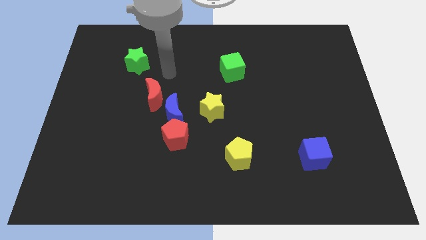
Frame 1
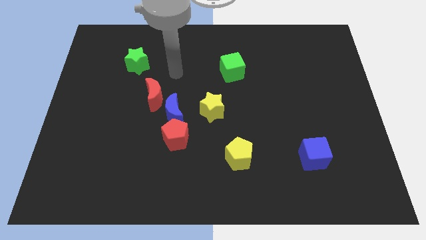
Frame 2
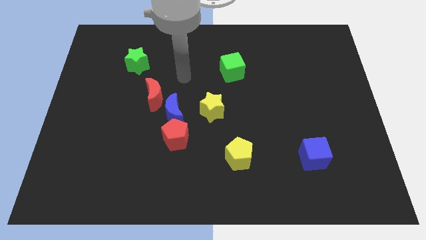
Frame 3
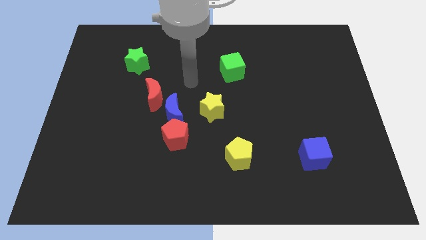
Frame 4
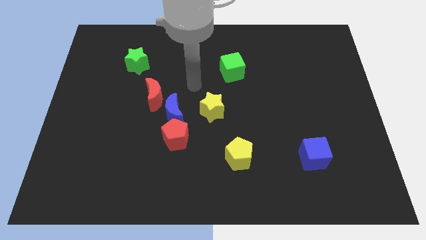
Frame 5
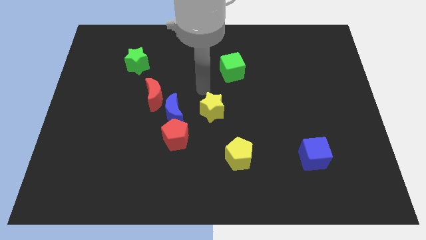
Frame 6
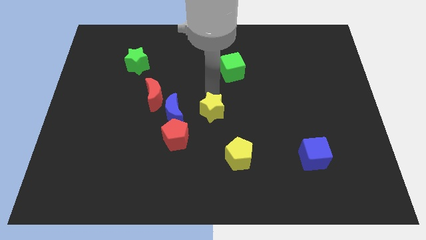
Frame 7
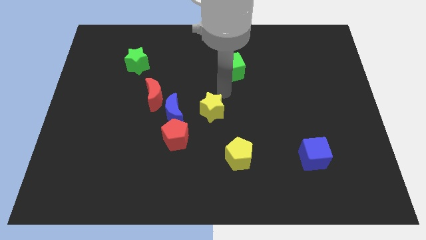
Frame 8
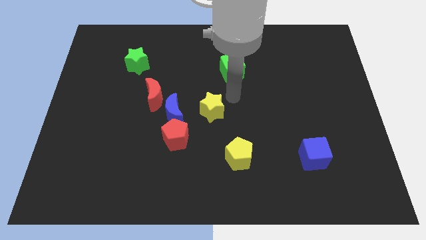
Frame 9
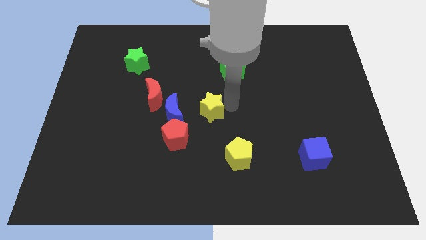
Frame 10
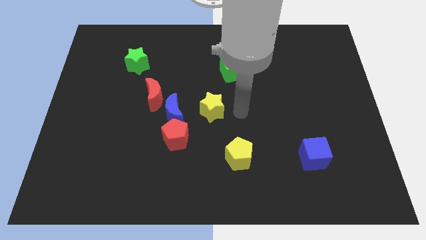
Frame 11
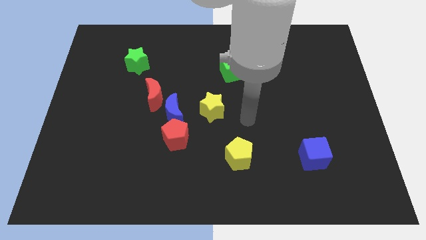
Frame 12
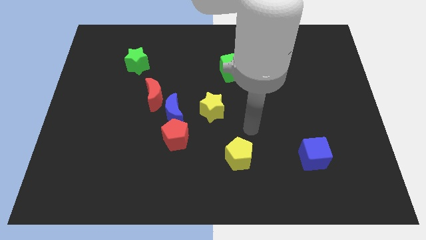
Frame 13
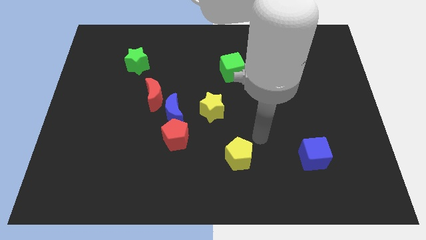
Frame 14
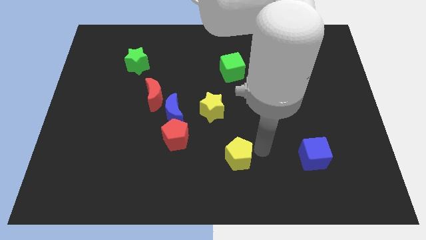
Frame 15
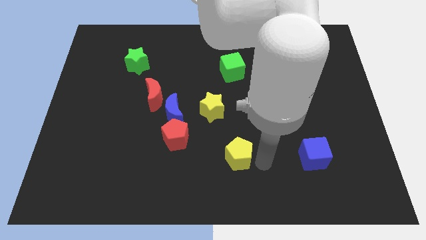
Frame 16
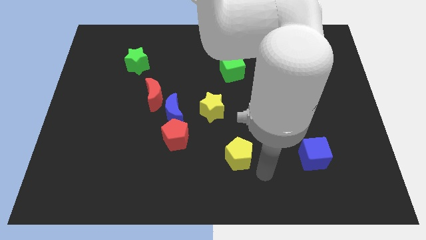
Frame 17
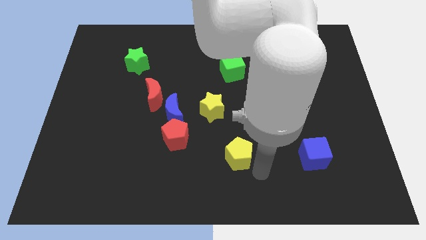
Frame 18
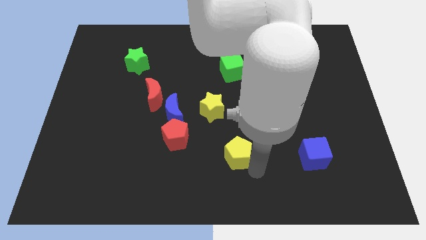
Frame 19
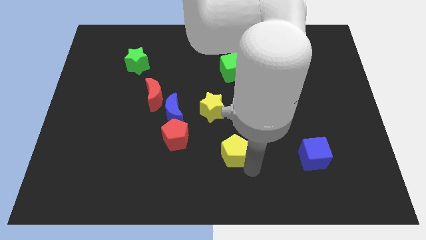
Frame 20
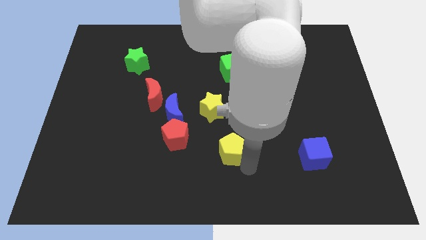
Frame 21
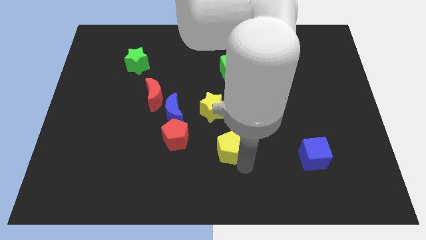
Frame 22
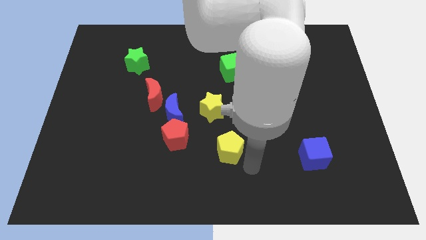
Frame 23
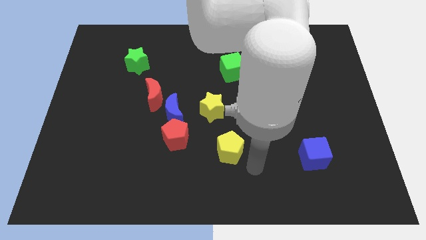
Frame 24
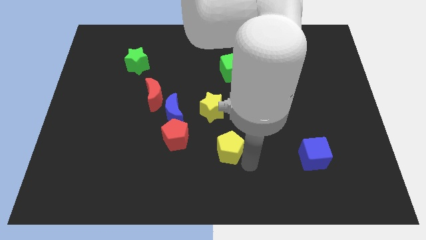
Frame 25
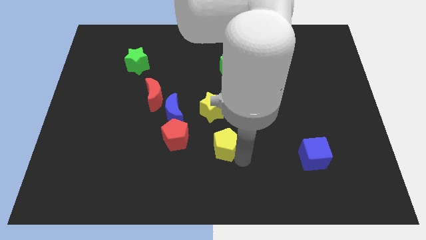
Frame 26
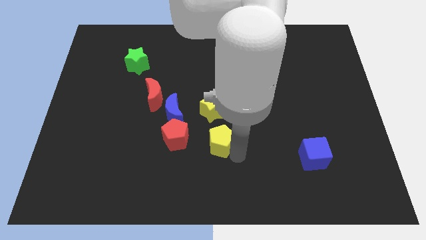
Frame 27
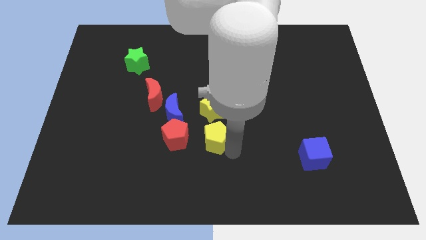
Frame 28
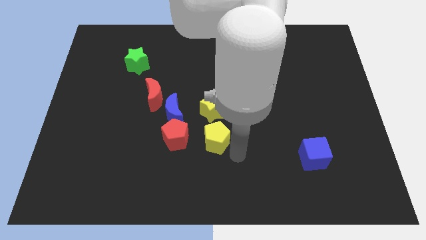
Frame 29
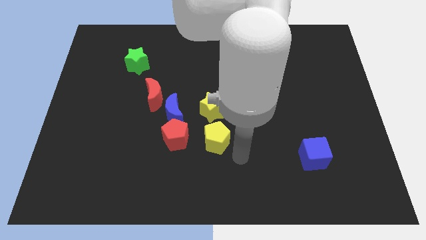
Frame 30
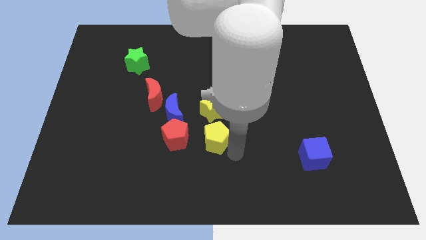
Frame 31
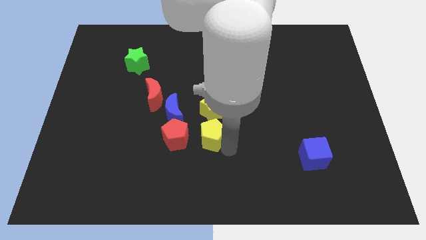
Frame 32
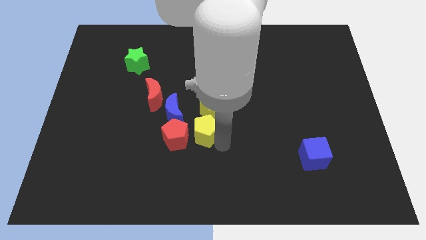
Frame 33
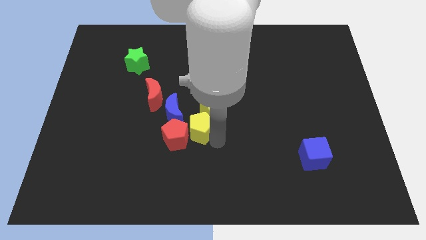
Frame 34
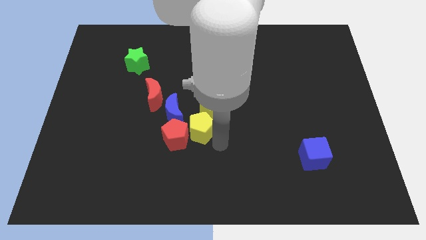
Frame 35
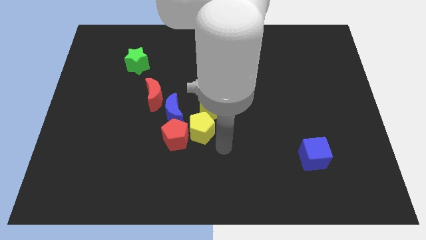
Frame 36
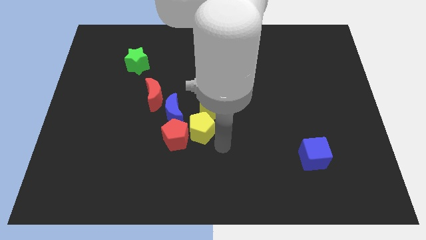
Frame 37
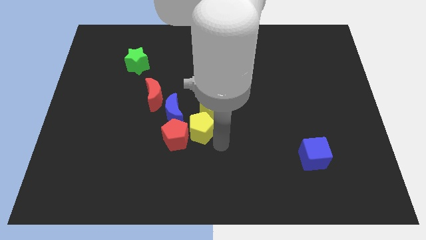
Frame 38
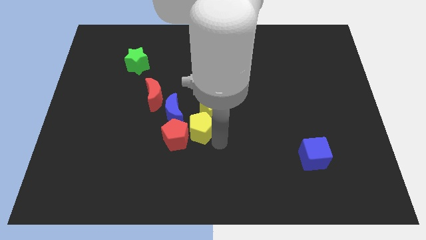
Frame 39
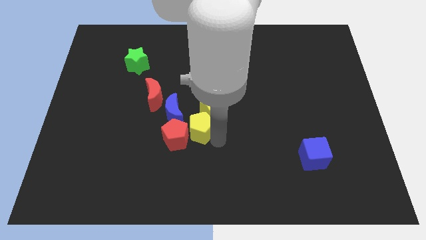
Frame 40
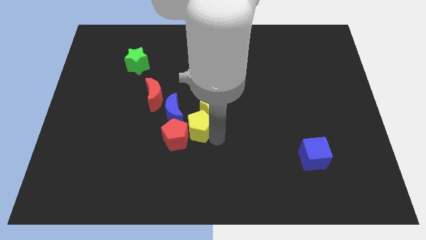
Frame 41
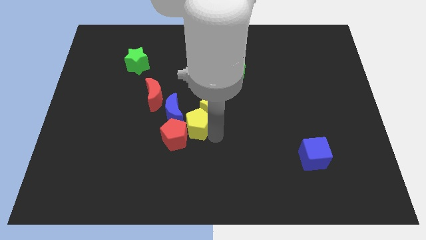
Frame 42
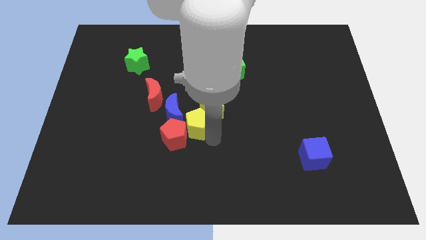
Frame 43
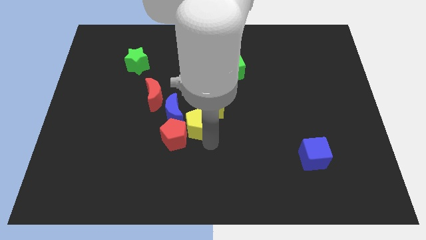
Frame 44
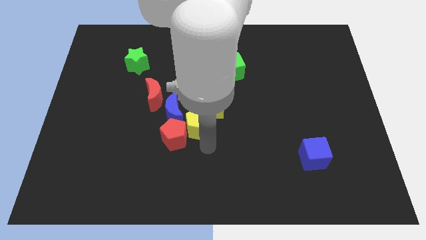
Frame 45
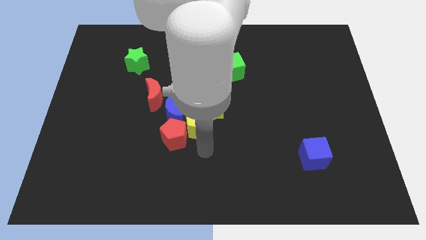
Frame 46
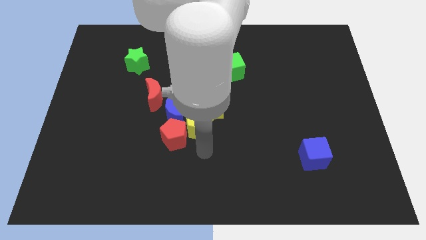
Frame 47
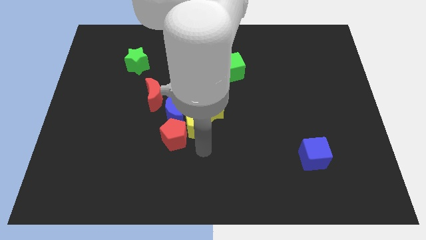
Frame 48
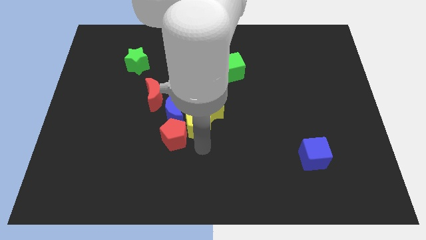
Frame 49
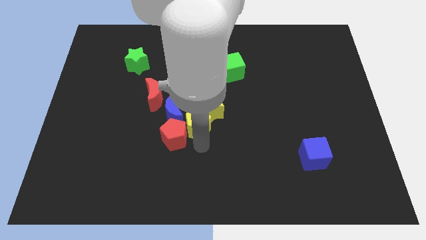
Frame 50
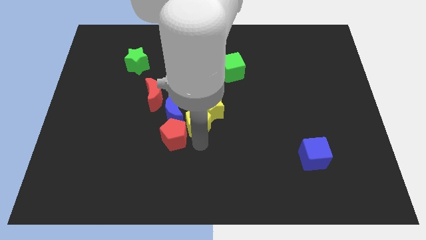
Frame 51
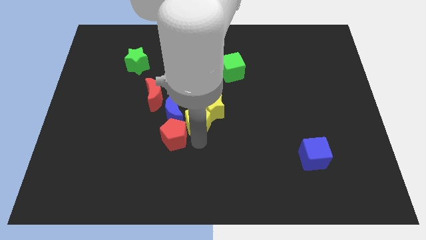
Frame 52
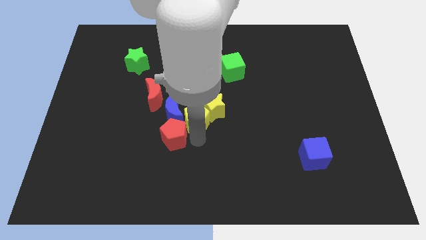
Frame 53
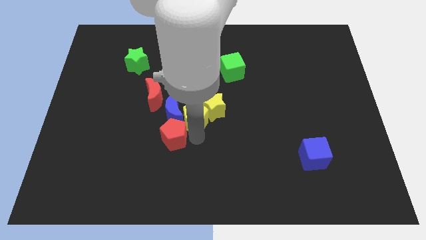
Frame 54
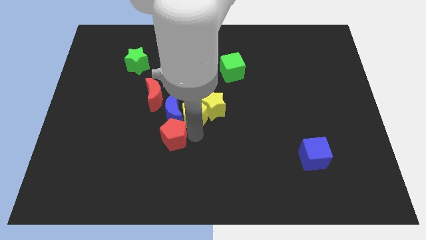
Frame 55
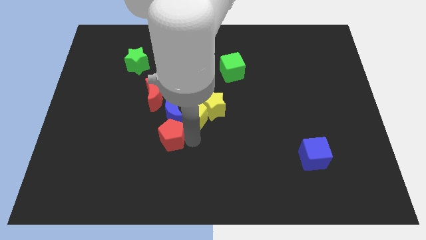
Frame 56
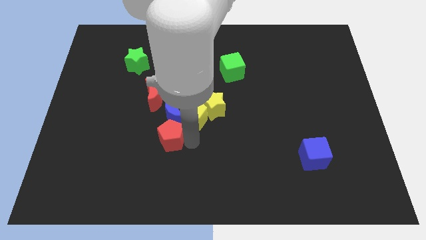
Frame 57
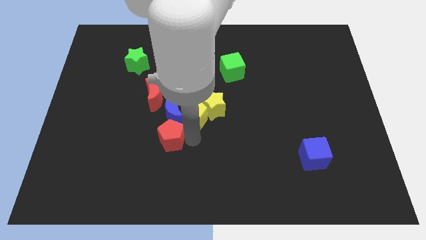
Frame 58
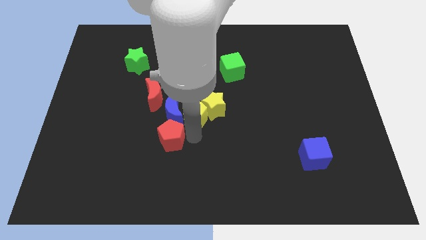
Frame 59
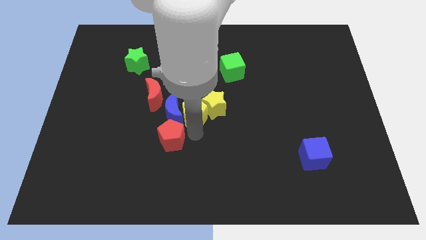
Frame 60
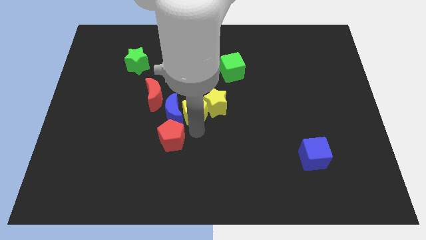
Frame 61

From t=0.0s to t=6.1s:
push the yellow pentagon to the right side of the red moon

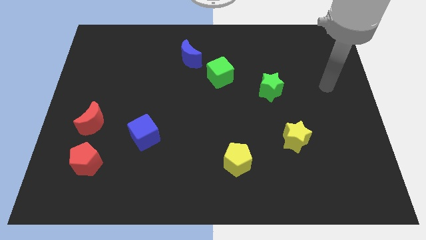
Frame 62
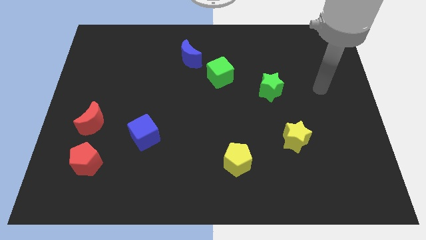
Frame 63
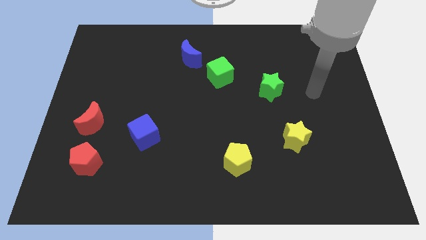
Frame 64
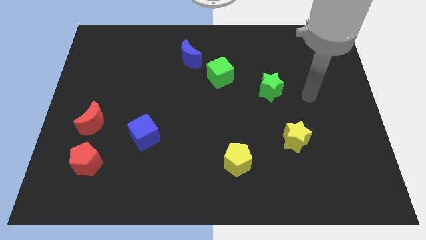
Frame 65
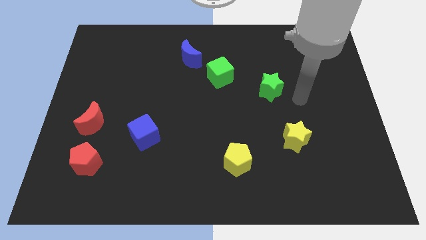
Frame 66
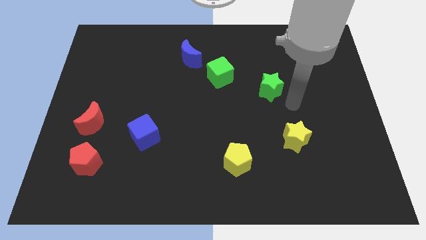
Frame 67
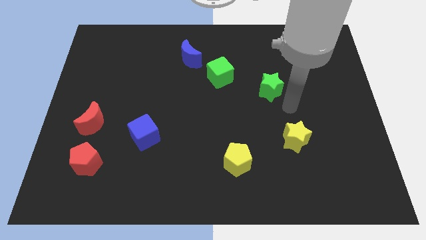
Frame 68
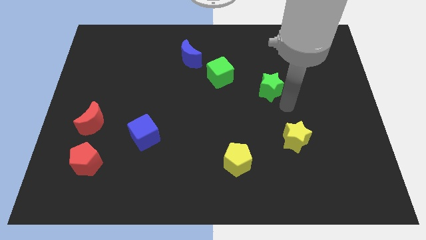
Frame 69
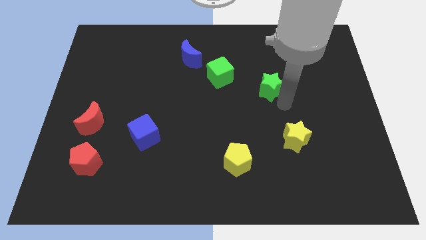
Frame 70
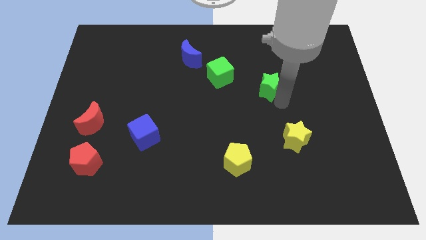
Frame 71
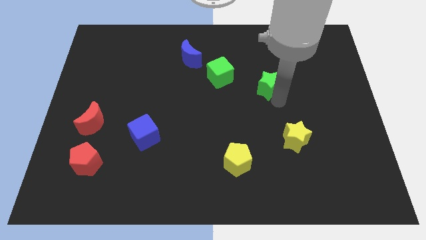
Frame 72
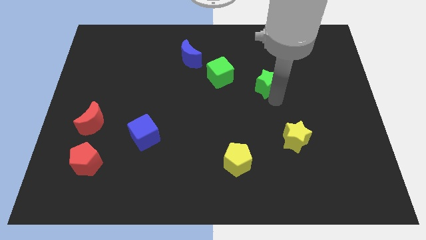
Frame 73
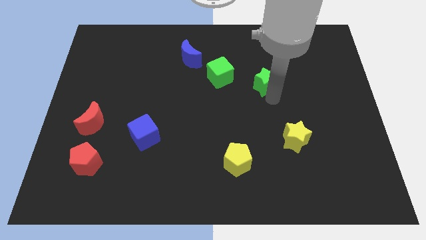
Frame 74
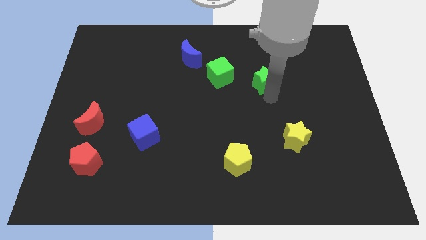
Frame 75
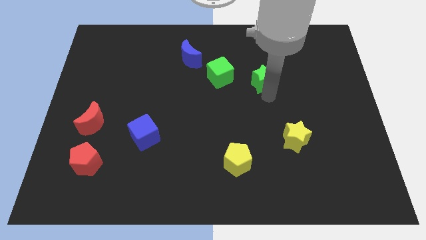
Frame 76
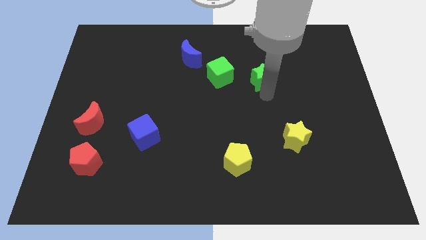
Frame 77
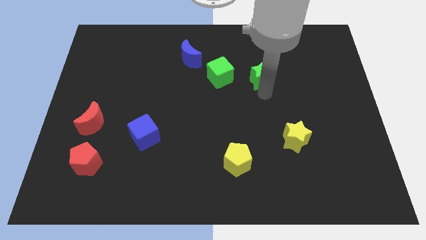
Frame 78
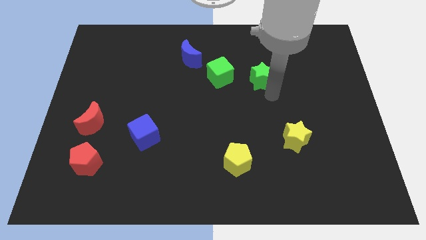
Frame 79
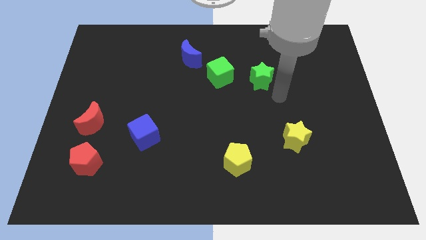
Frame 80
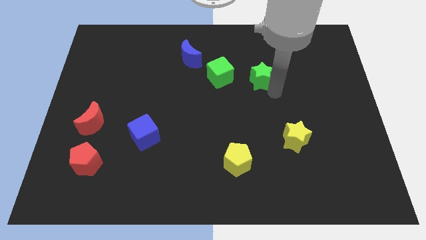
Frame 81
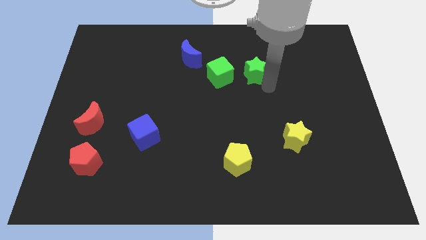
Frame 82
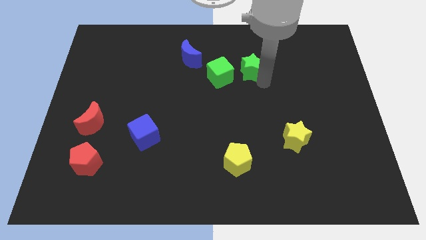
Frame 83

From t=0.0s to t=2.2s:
move the green star diagonally up and to the right of the green cube
